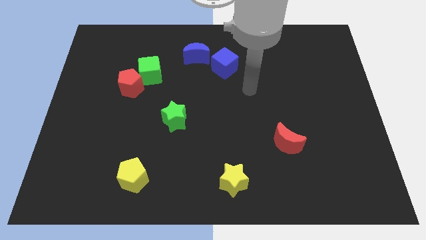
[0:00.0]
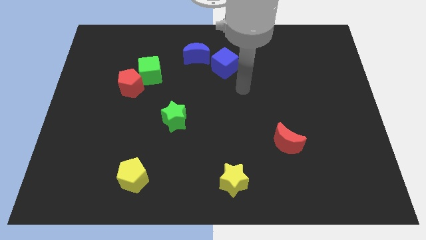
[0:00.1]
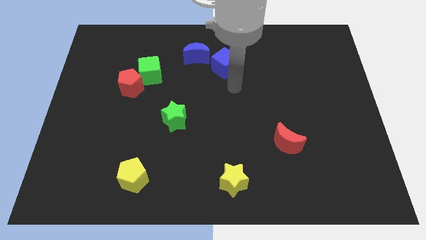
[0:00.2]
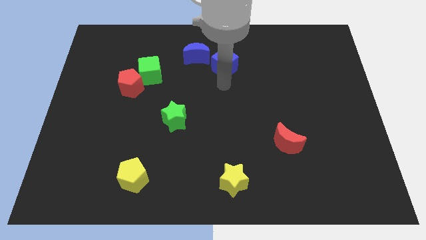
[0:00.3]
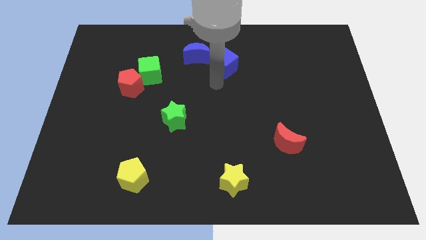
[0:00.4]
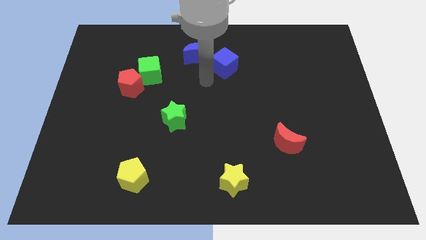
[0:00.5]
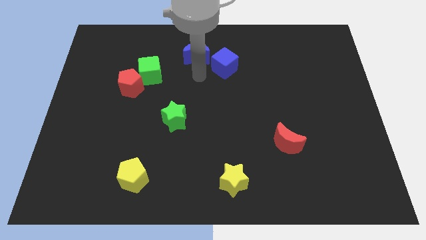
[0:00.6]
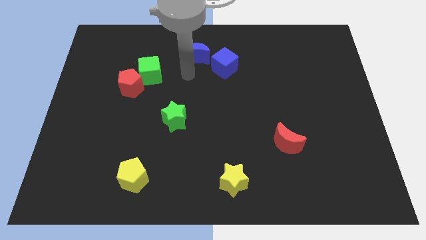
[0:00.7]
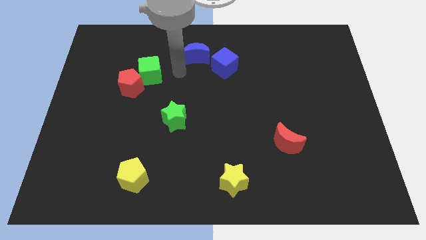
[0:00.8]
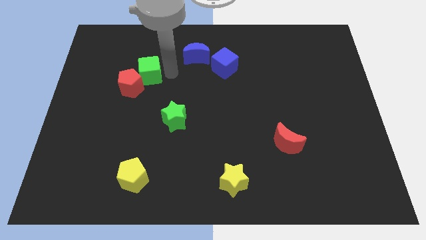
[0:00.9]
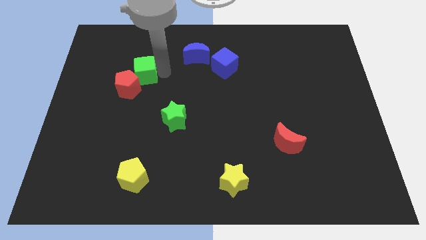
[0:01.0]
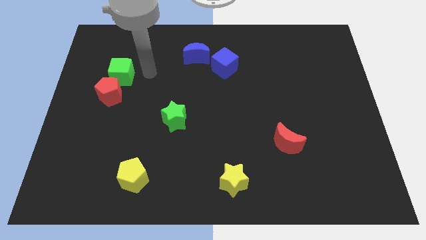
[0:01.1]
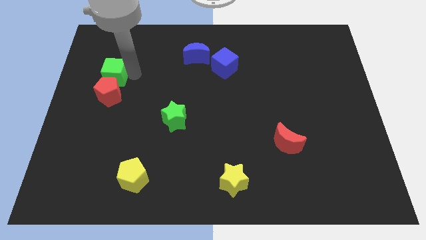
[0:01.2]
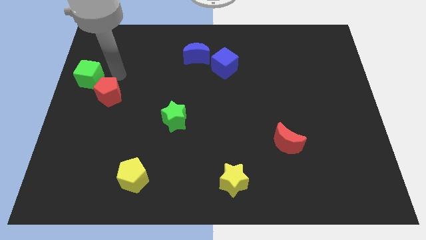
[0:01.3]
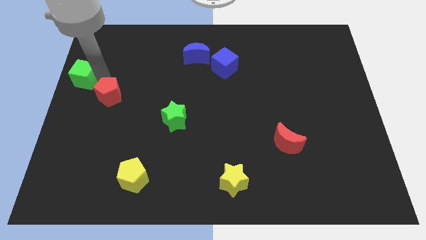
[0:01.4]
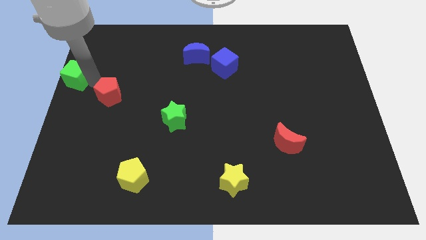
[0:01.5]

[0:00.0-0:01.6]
separate the red pentagon from the green cube

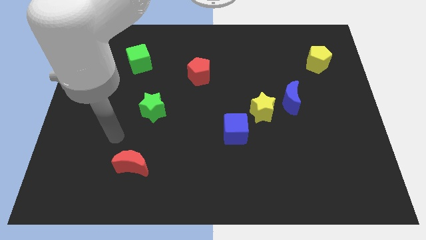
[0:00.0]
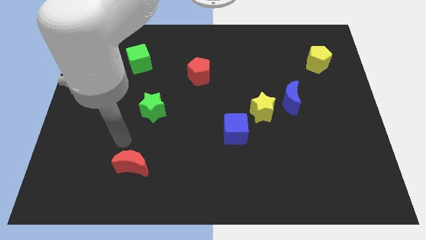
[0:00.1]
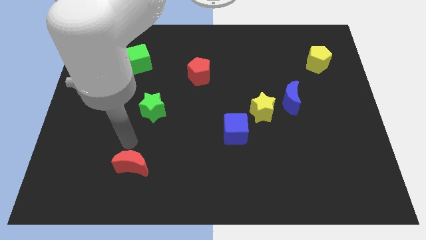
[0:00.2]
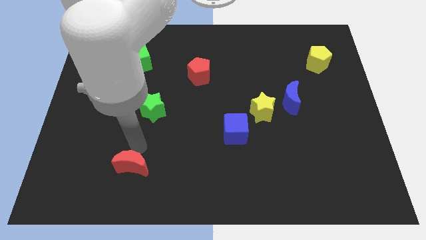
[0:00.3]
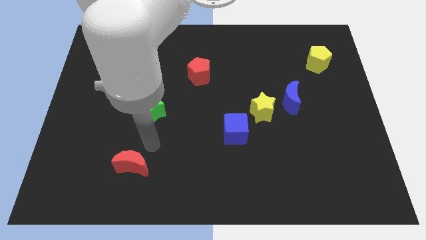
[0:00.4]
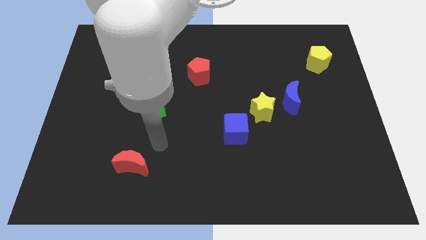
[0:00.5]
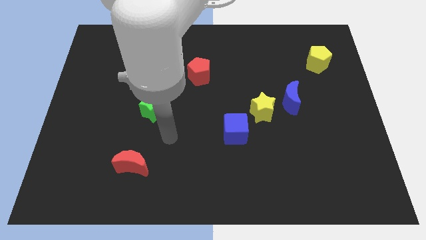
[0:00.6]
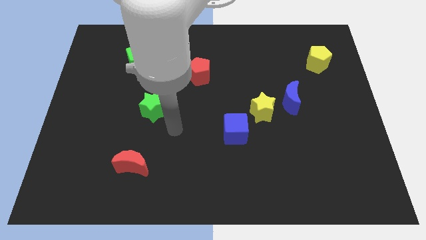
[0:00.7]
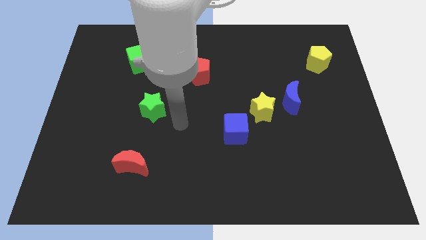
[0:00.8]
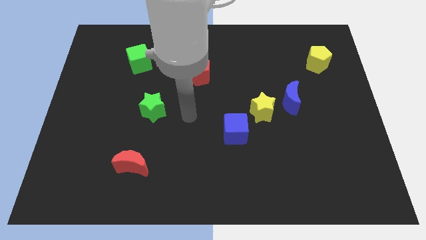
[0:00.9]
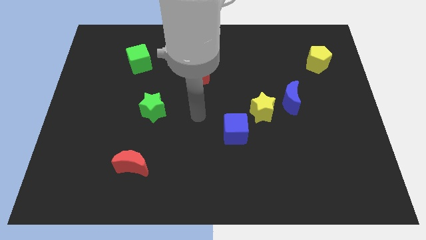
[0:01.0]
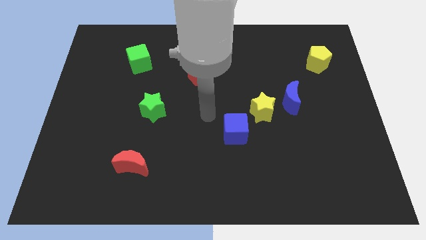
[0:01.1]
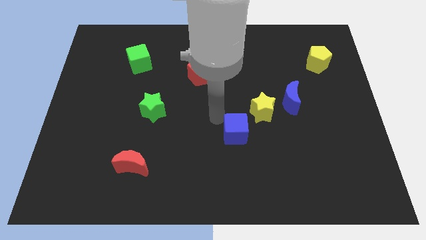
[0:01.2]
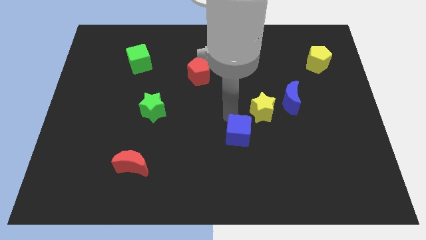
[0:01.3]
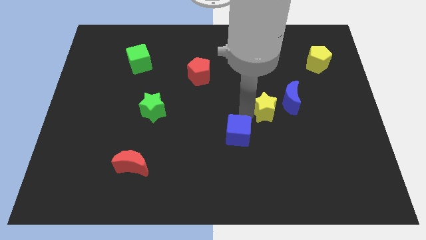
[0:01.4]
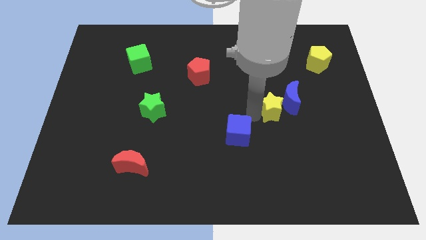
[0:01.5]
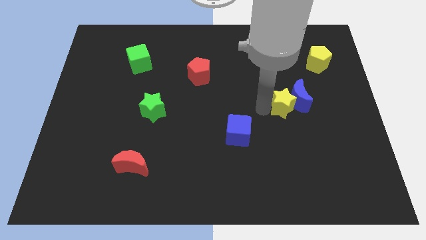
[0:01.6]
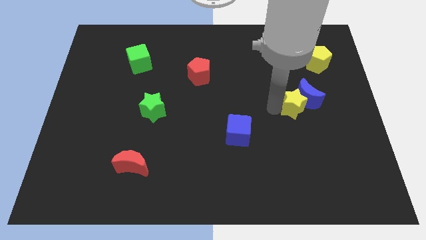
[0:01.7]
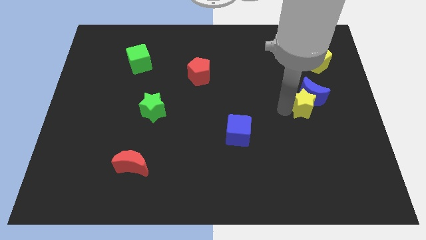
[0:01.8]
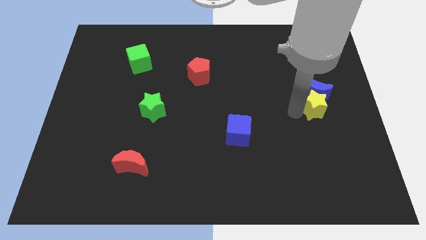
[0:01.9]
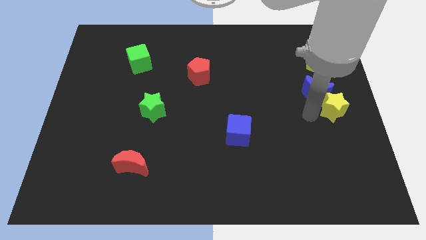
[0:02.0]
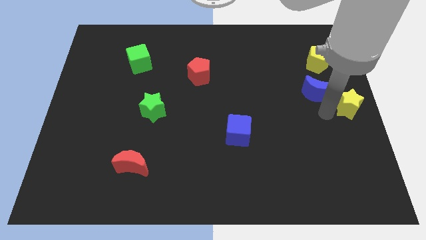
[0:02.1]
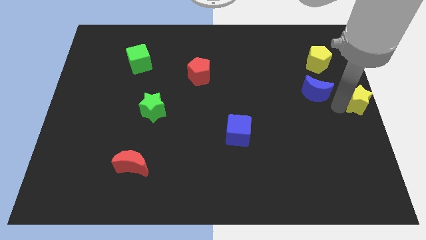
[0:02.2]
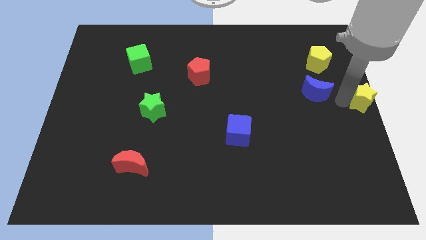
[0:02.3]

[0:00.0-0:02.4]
separate the blue moon from the yellow star

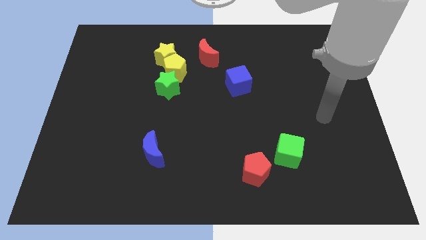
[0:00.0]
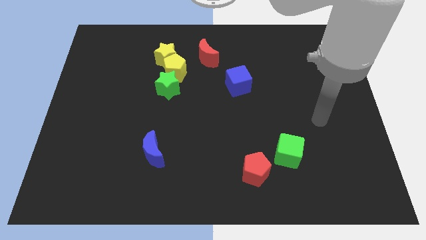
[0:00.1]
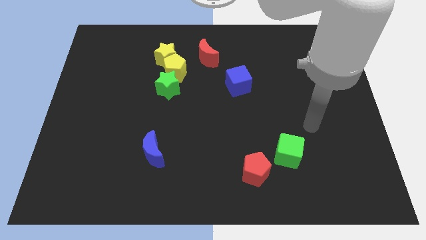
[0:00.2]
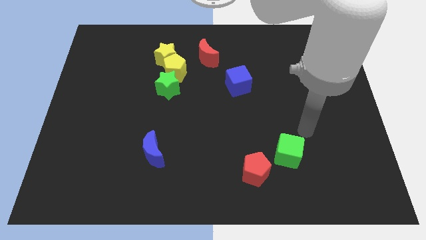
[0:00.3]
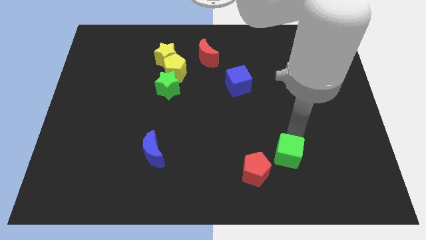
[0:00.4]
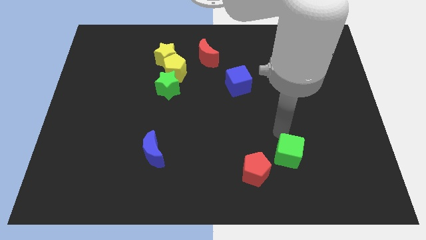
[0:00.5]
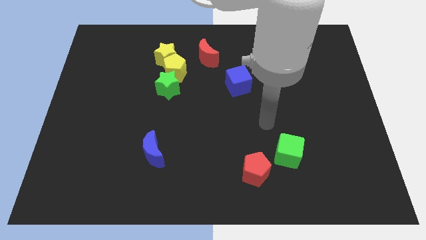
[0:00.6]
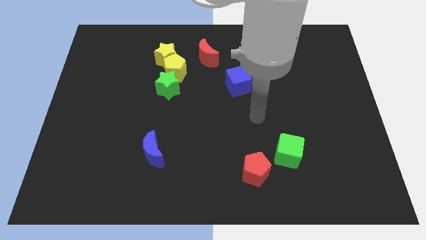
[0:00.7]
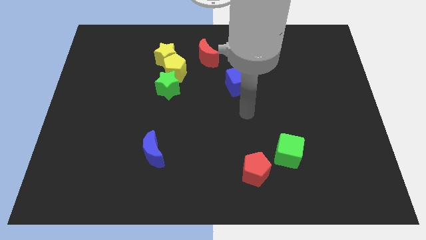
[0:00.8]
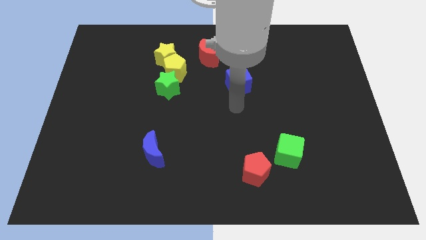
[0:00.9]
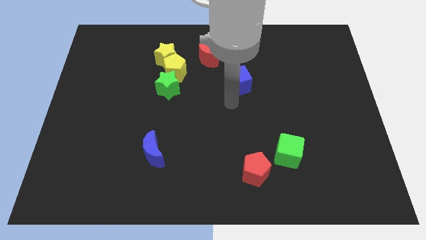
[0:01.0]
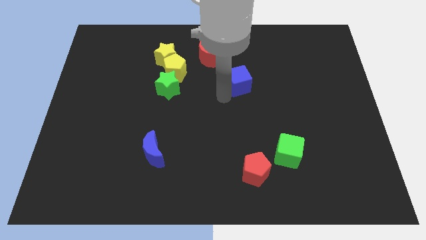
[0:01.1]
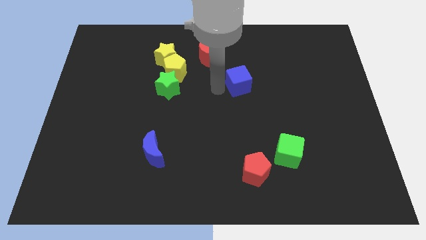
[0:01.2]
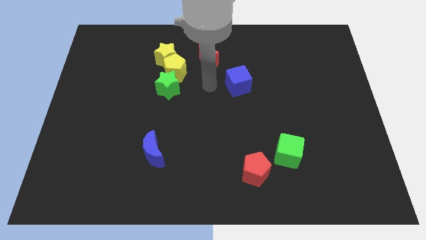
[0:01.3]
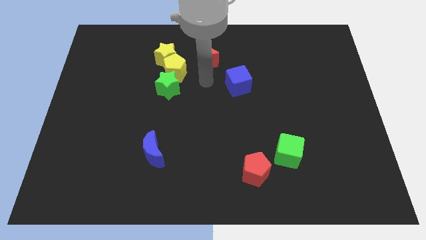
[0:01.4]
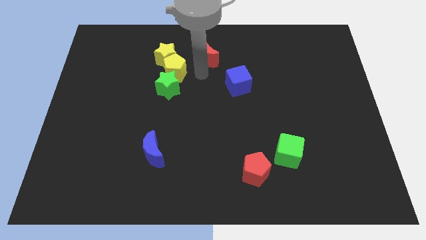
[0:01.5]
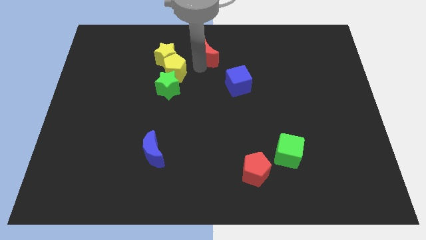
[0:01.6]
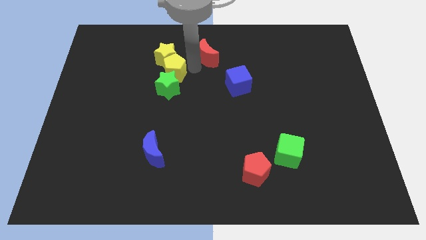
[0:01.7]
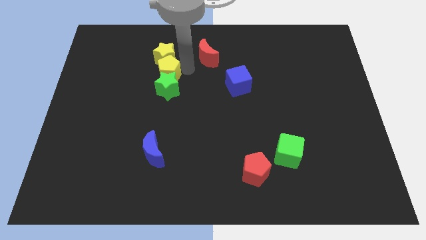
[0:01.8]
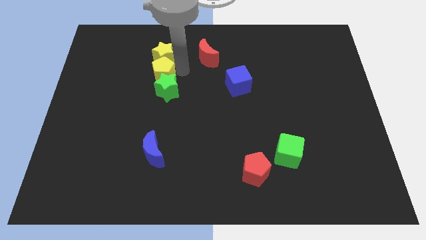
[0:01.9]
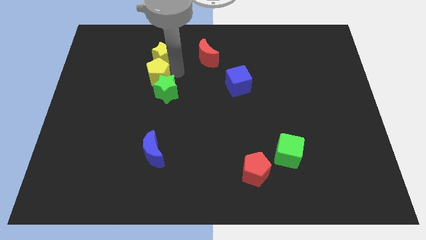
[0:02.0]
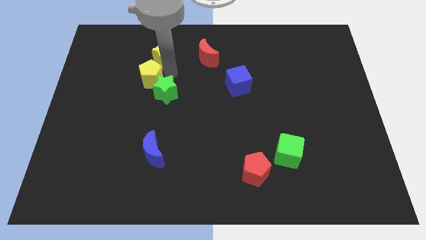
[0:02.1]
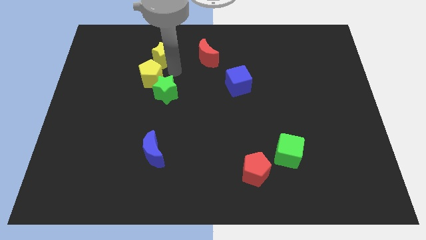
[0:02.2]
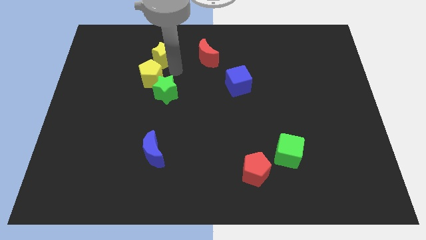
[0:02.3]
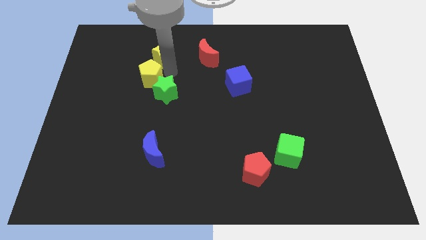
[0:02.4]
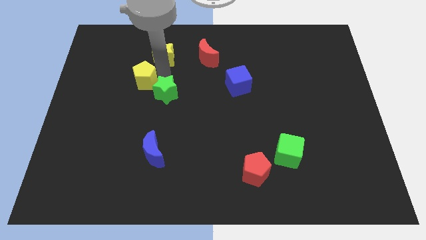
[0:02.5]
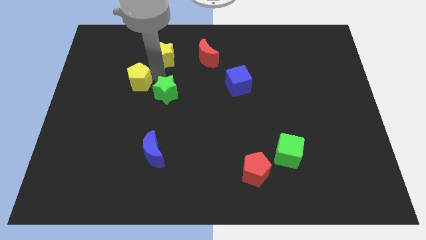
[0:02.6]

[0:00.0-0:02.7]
move the yellow pentagon away from the clump

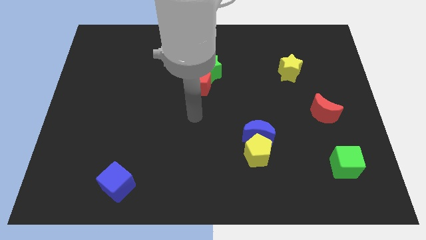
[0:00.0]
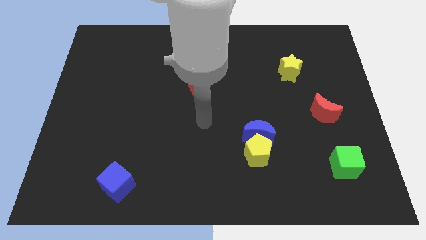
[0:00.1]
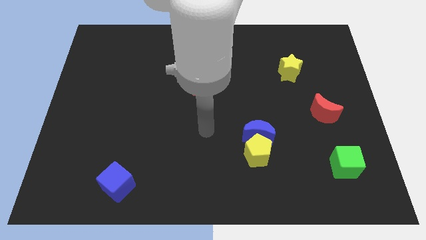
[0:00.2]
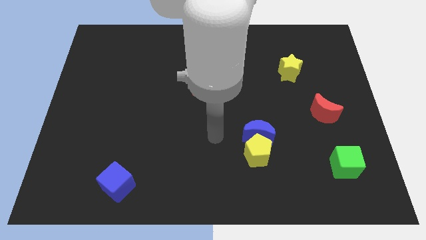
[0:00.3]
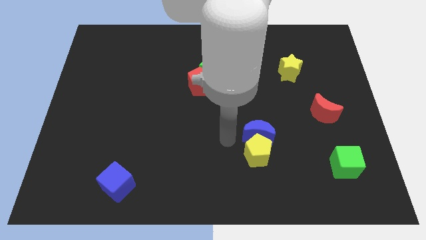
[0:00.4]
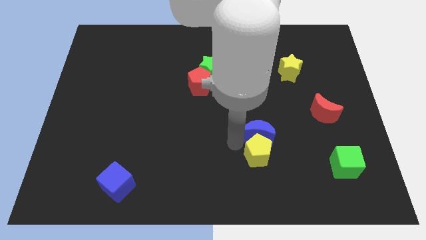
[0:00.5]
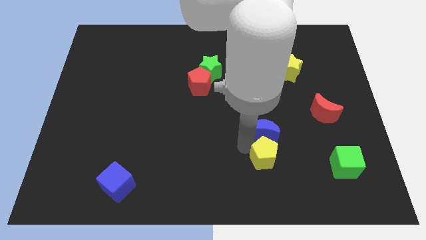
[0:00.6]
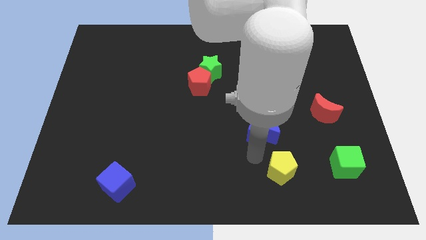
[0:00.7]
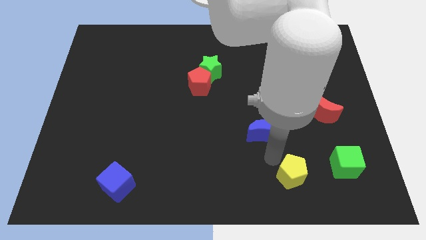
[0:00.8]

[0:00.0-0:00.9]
pull the blue moon apart from the yellow pentagon

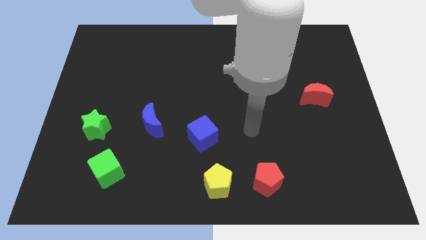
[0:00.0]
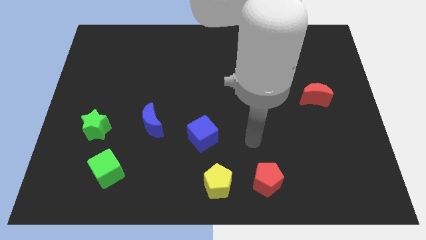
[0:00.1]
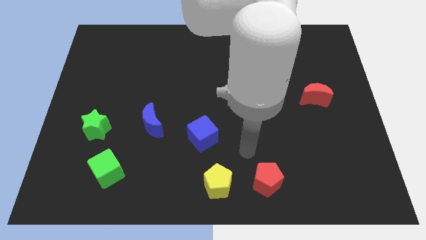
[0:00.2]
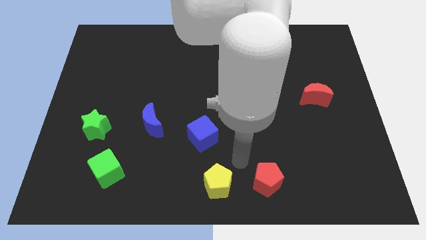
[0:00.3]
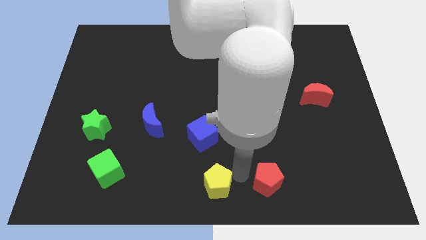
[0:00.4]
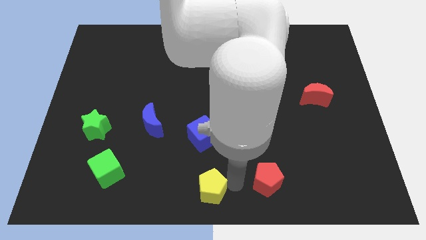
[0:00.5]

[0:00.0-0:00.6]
separate the red pentagon from the yellow pentagon

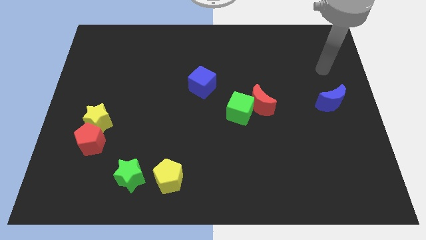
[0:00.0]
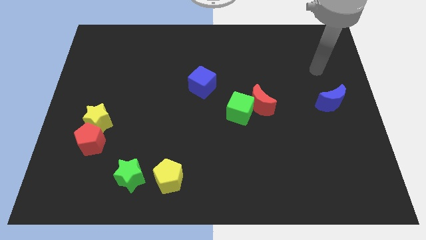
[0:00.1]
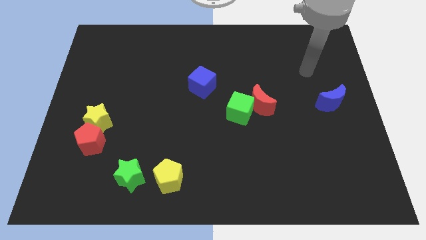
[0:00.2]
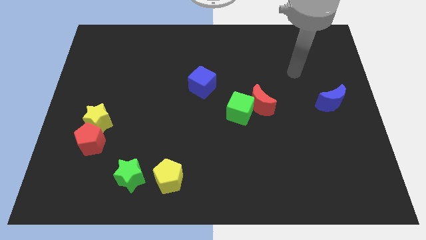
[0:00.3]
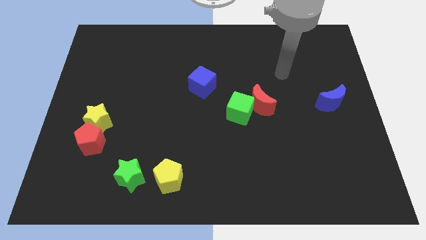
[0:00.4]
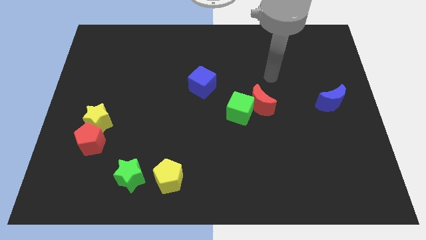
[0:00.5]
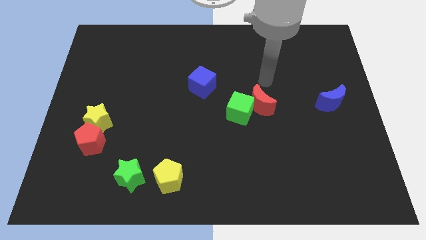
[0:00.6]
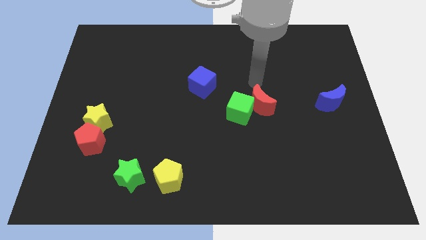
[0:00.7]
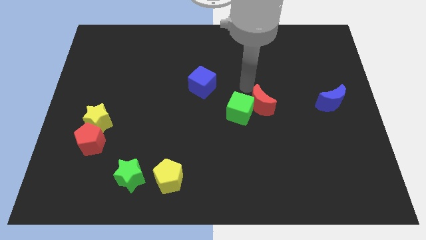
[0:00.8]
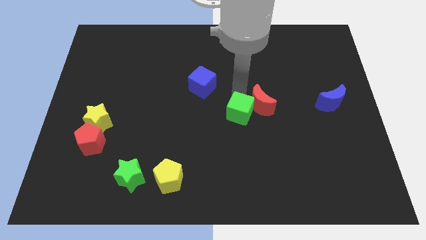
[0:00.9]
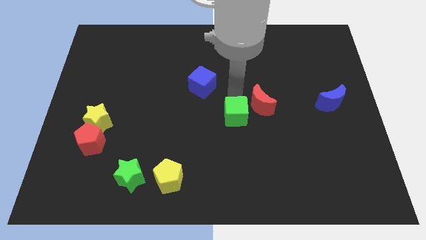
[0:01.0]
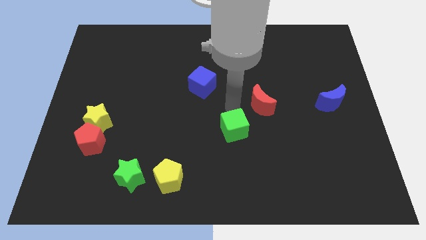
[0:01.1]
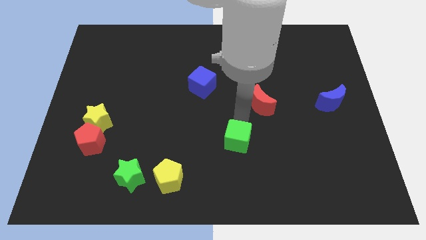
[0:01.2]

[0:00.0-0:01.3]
move the red moon away from the green cube
